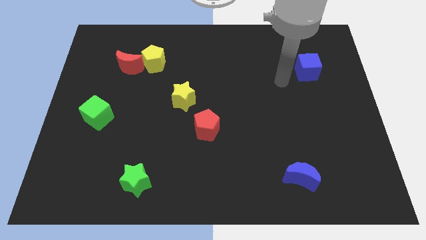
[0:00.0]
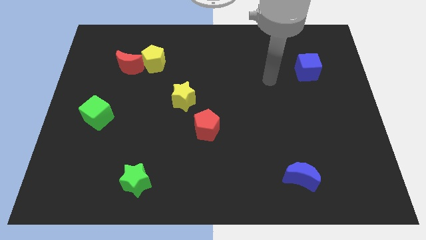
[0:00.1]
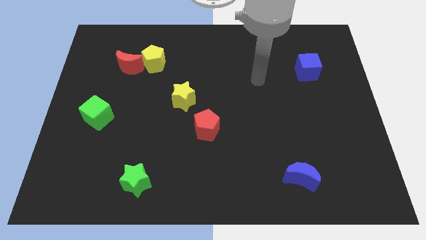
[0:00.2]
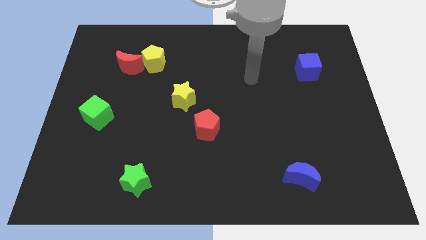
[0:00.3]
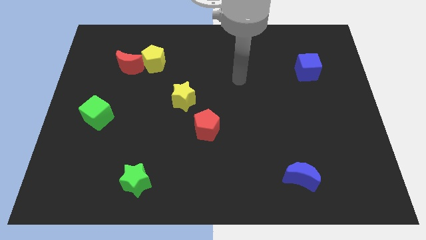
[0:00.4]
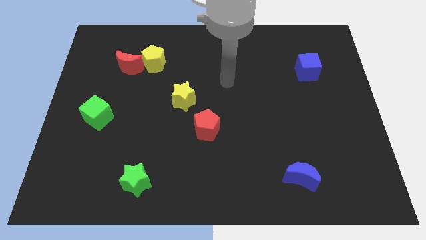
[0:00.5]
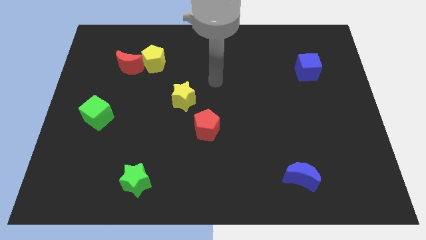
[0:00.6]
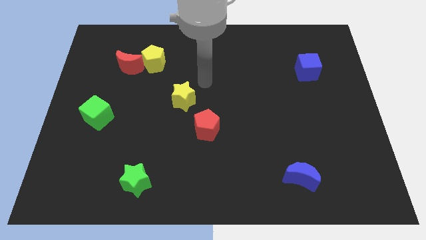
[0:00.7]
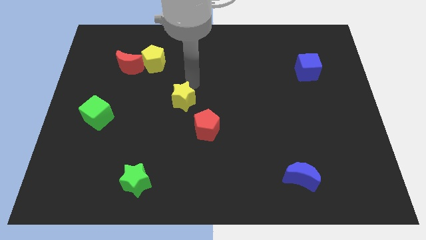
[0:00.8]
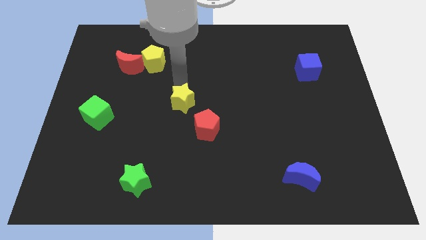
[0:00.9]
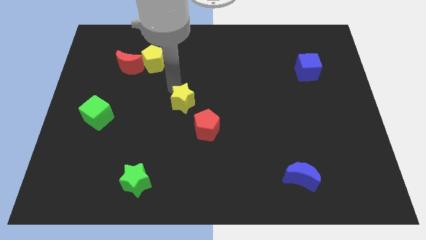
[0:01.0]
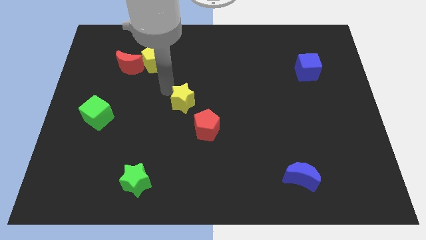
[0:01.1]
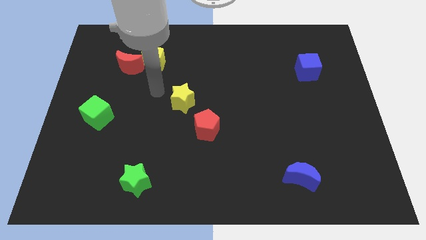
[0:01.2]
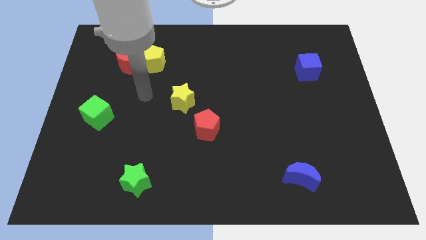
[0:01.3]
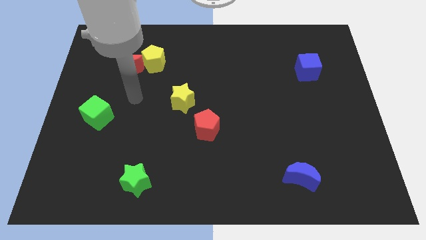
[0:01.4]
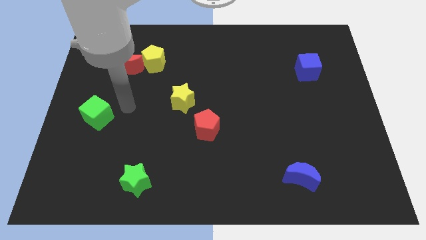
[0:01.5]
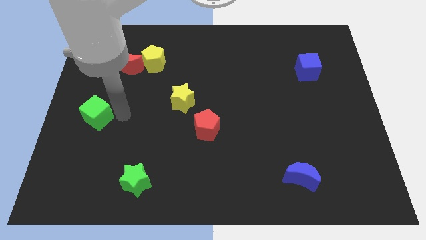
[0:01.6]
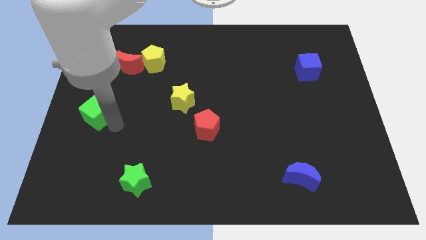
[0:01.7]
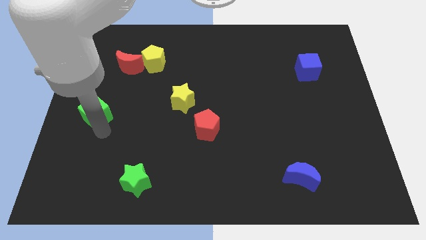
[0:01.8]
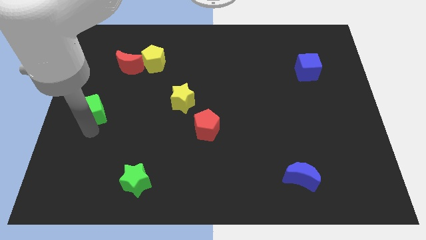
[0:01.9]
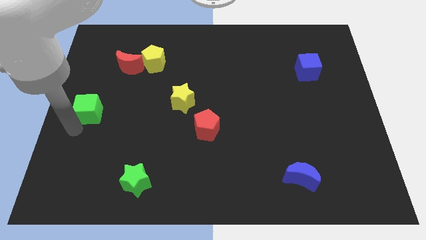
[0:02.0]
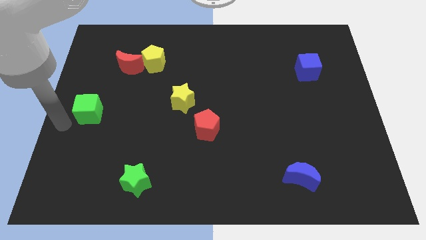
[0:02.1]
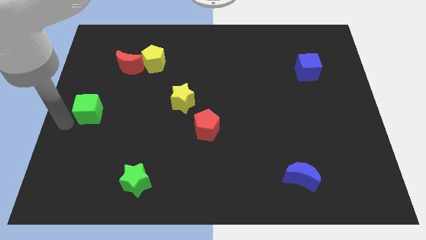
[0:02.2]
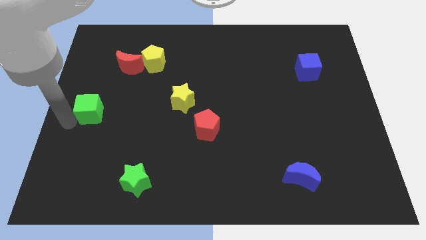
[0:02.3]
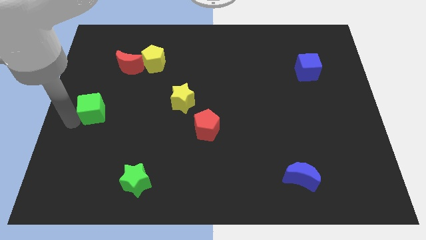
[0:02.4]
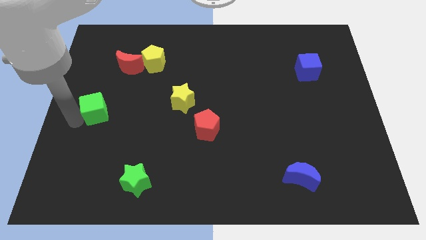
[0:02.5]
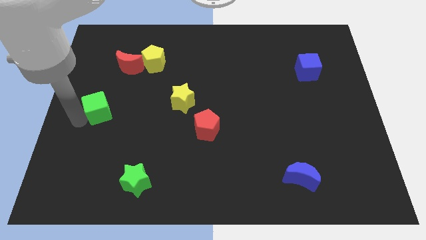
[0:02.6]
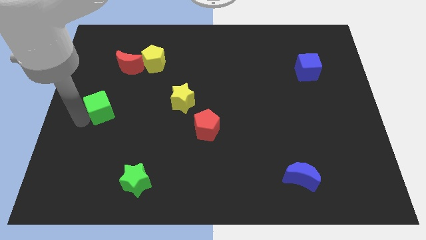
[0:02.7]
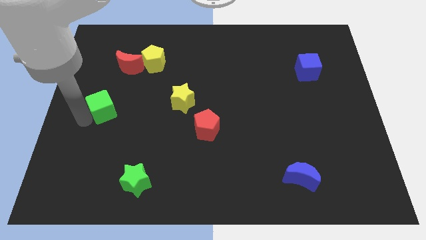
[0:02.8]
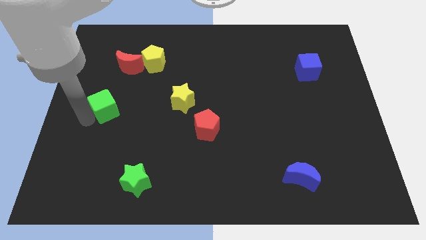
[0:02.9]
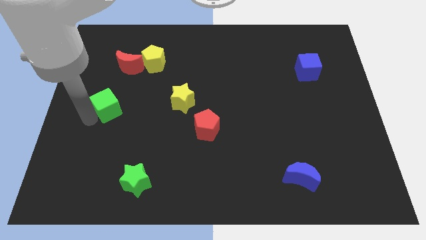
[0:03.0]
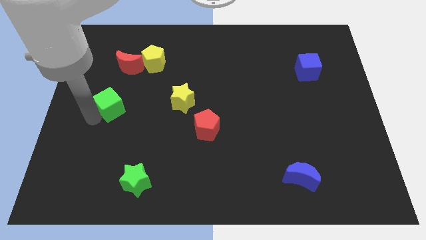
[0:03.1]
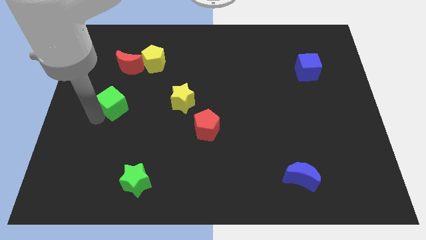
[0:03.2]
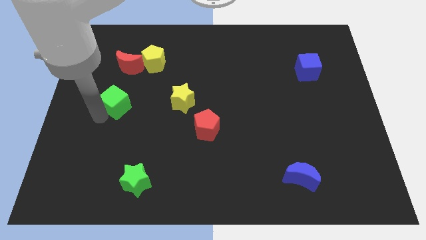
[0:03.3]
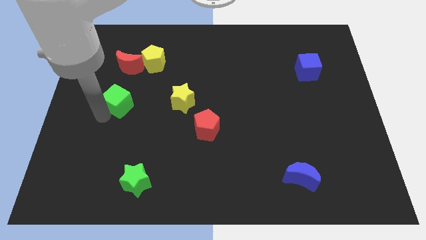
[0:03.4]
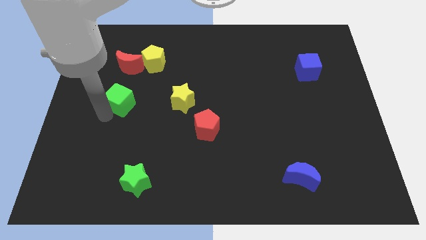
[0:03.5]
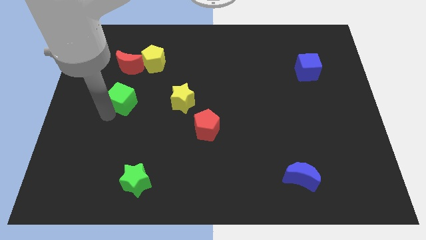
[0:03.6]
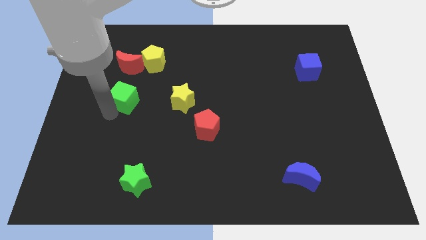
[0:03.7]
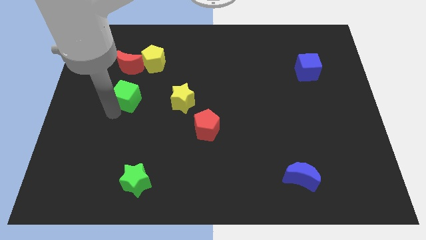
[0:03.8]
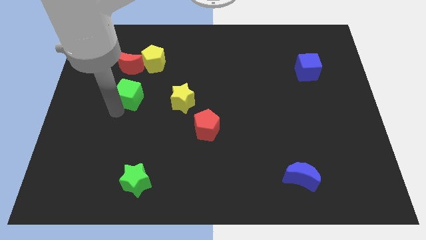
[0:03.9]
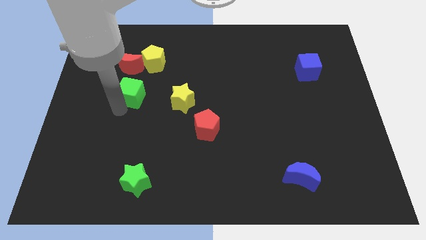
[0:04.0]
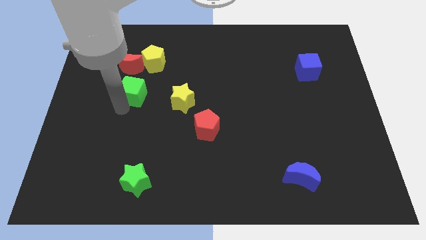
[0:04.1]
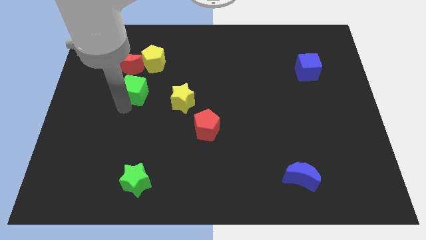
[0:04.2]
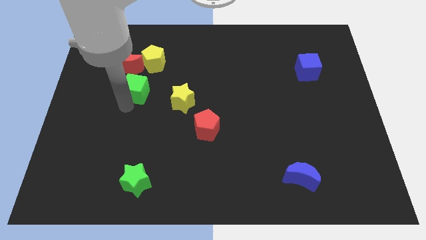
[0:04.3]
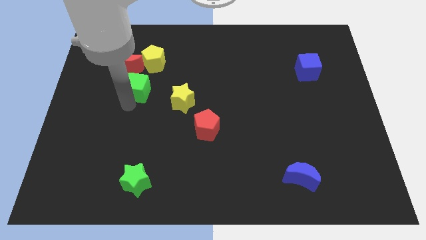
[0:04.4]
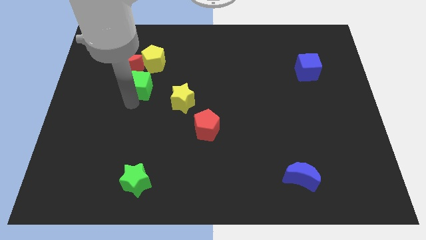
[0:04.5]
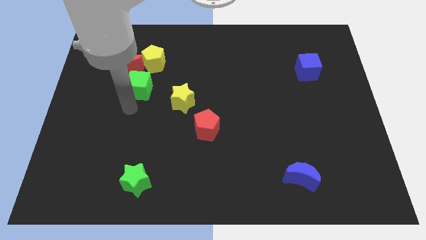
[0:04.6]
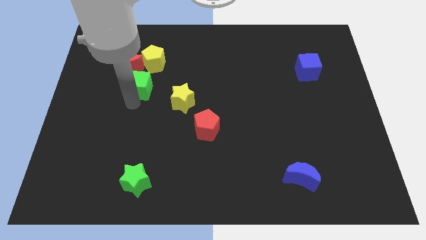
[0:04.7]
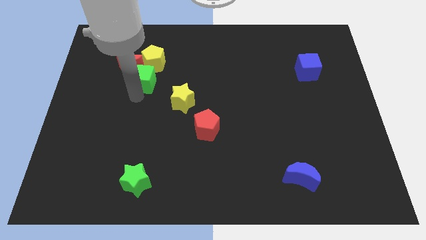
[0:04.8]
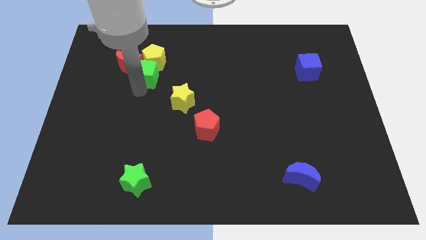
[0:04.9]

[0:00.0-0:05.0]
move the green cube next to the yellow pentagon

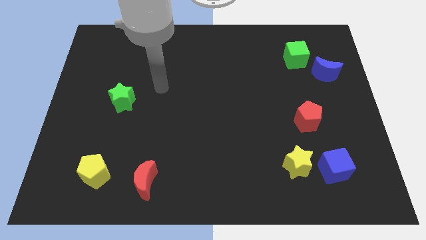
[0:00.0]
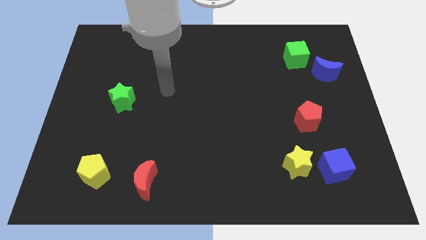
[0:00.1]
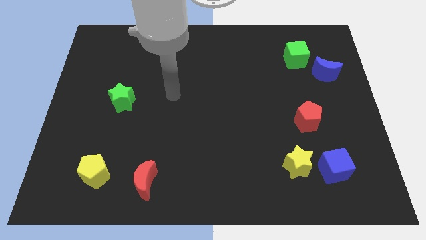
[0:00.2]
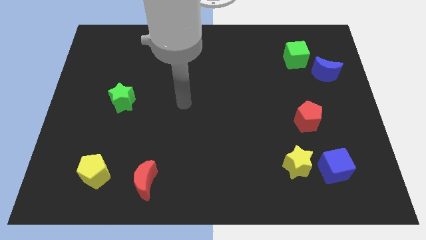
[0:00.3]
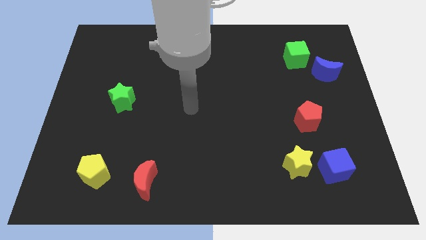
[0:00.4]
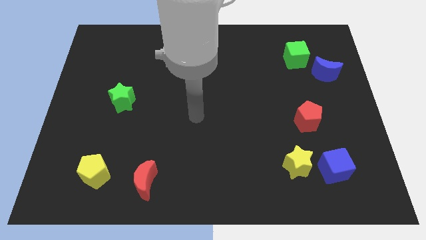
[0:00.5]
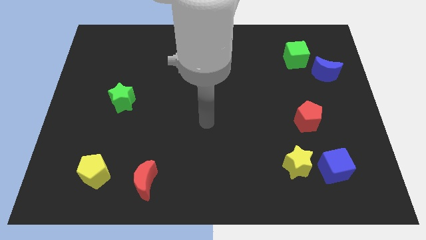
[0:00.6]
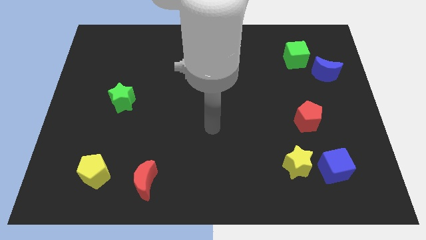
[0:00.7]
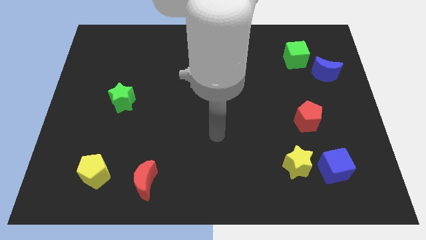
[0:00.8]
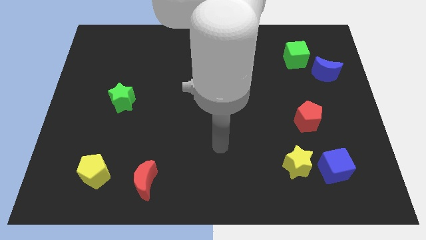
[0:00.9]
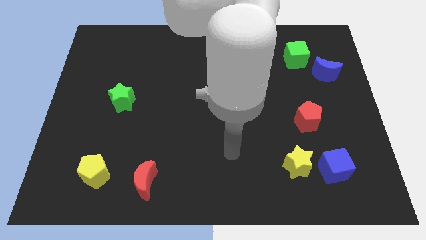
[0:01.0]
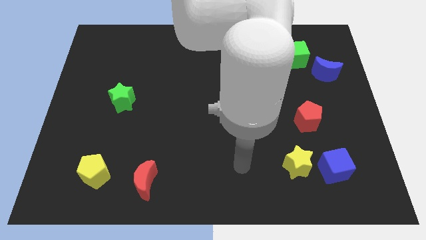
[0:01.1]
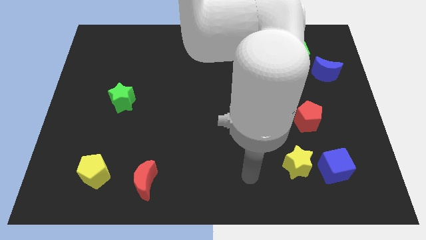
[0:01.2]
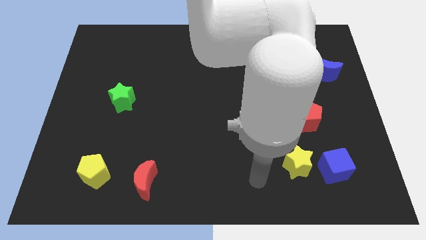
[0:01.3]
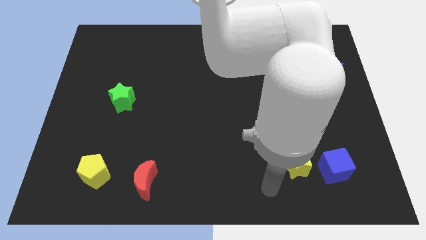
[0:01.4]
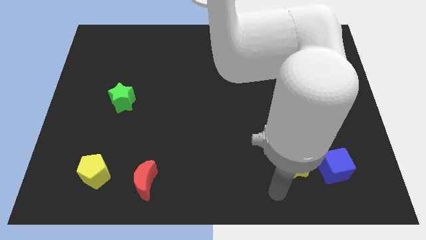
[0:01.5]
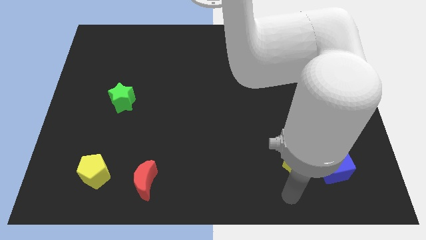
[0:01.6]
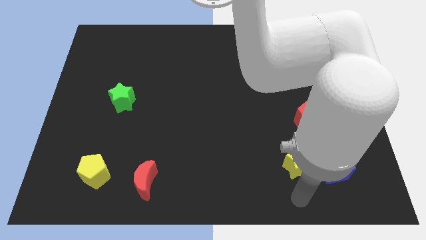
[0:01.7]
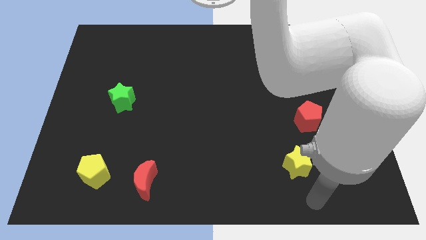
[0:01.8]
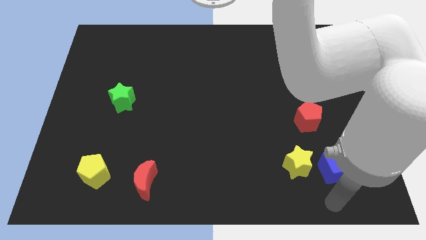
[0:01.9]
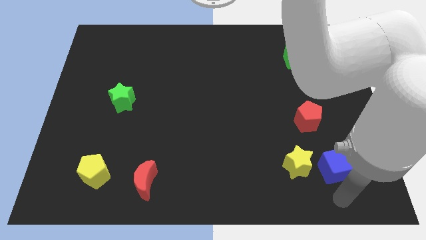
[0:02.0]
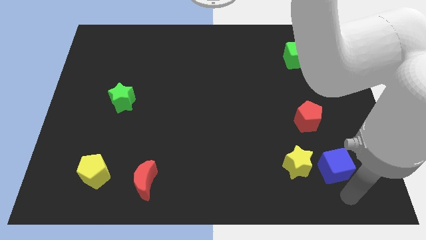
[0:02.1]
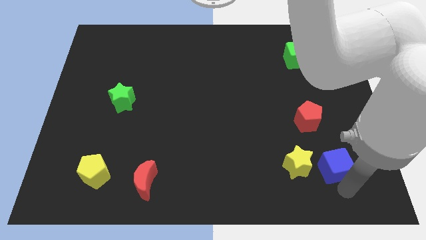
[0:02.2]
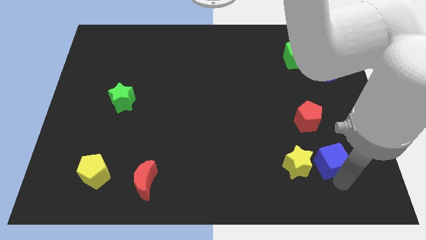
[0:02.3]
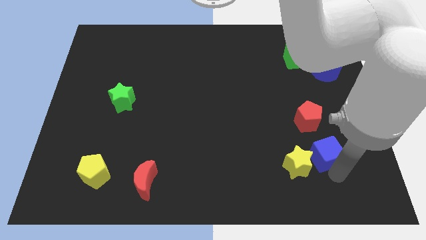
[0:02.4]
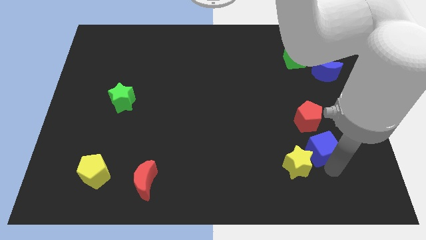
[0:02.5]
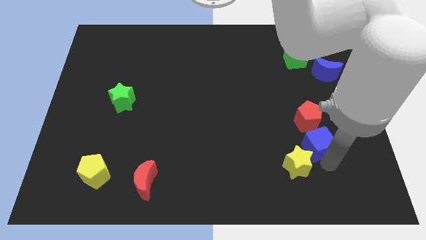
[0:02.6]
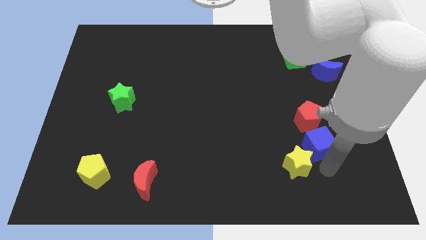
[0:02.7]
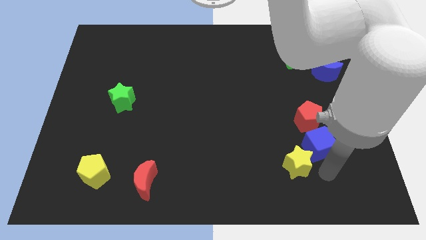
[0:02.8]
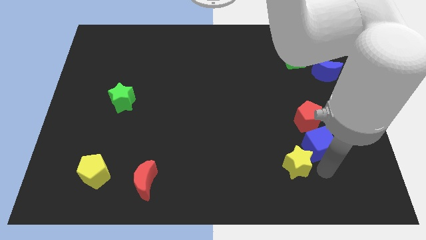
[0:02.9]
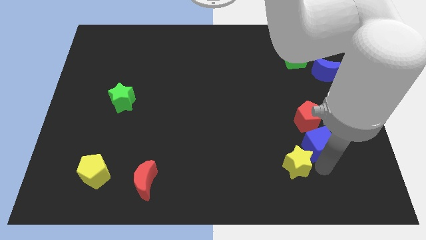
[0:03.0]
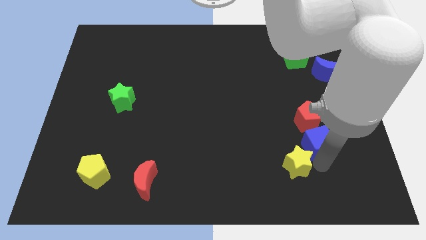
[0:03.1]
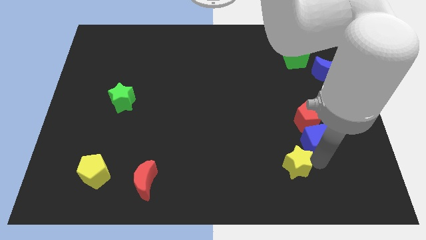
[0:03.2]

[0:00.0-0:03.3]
put the blue cube towards the red pentagon
